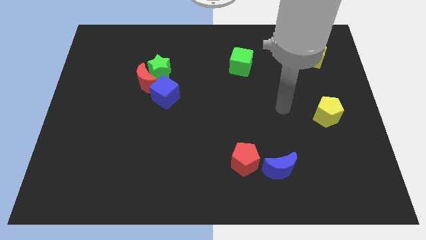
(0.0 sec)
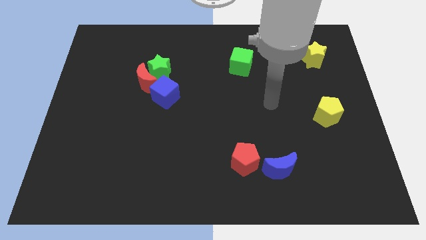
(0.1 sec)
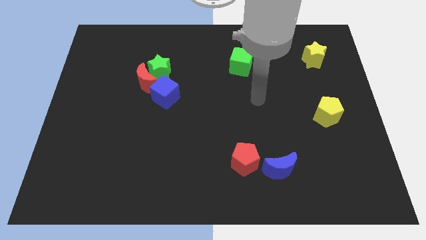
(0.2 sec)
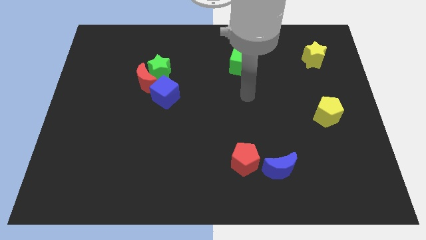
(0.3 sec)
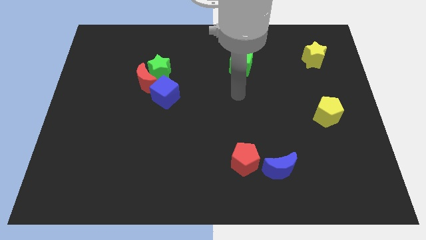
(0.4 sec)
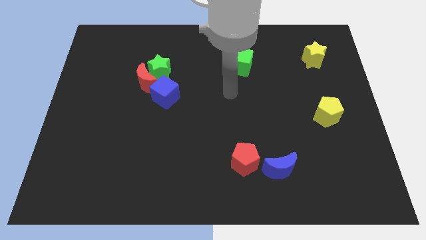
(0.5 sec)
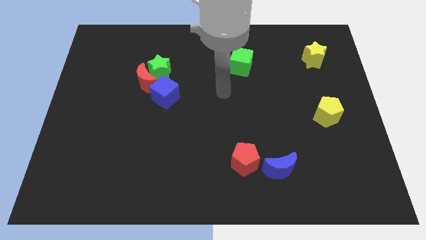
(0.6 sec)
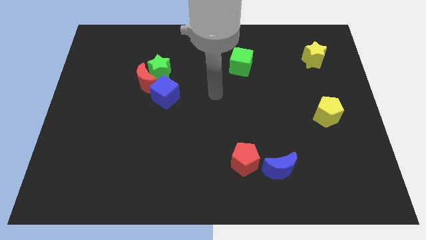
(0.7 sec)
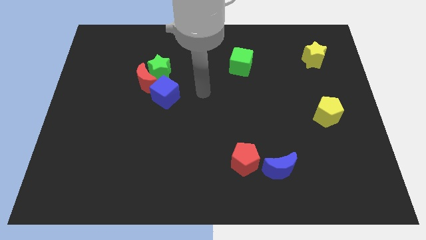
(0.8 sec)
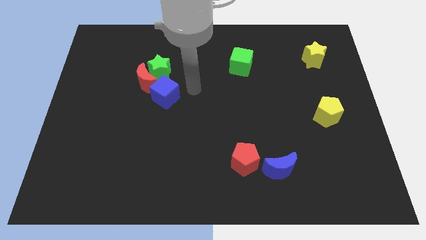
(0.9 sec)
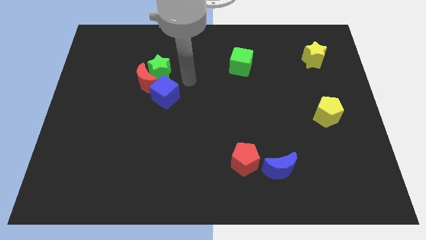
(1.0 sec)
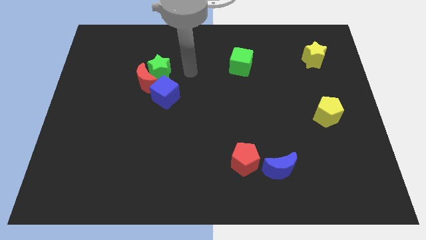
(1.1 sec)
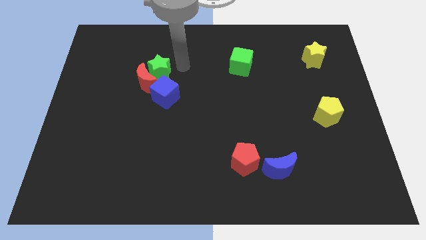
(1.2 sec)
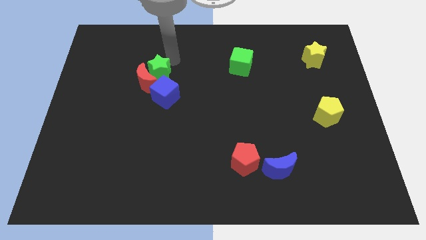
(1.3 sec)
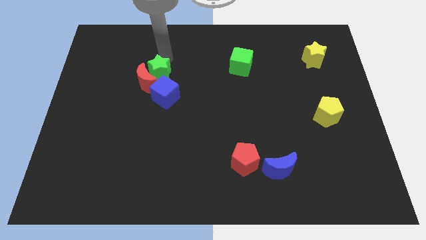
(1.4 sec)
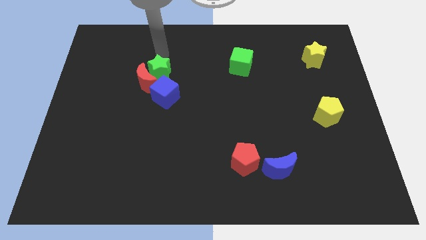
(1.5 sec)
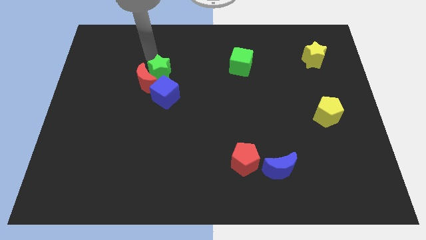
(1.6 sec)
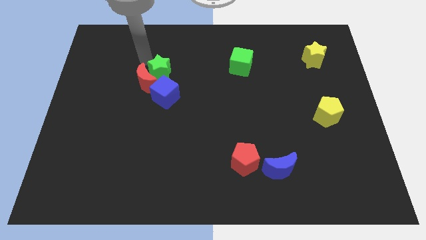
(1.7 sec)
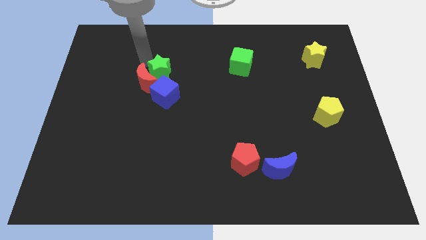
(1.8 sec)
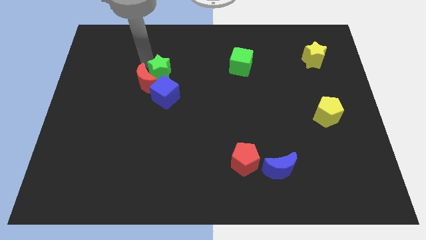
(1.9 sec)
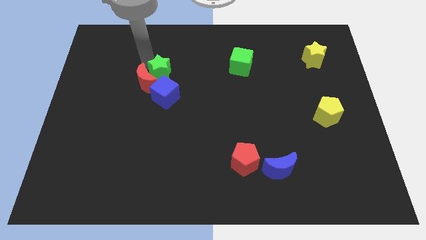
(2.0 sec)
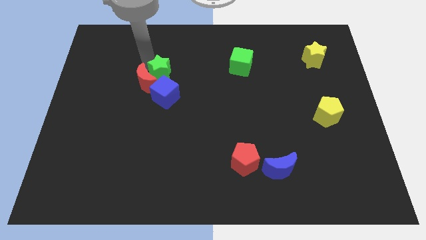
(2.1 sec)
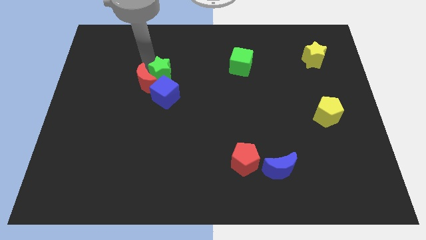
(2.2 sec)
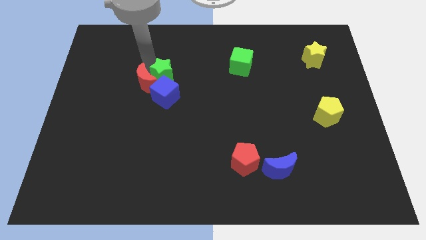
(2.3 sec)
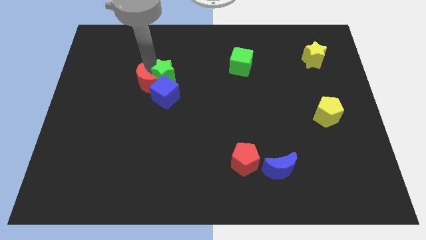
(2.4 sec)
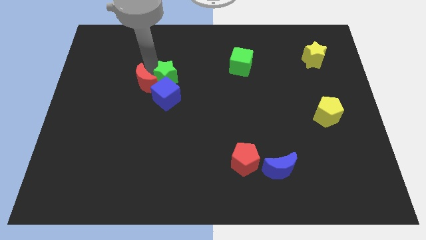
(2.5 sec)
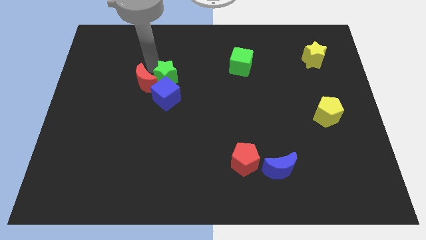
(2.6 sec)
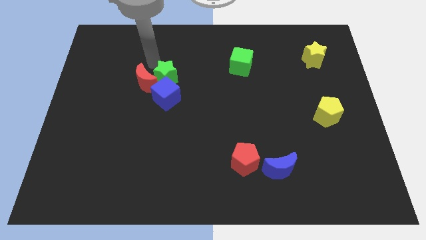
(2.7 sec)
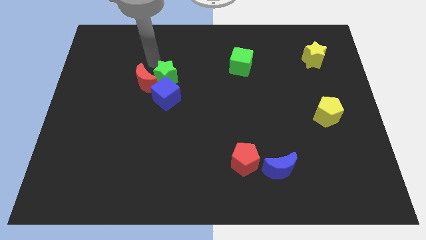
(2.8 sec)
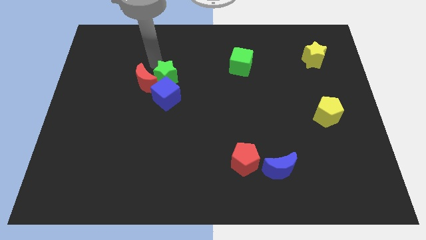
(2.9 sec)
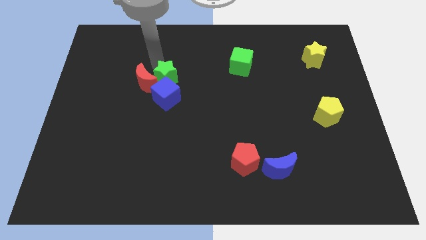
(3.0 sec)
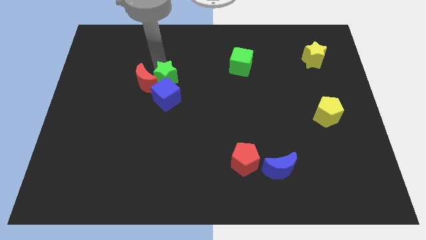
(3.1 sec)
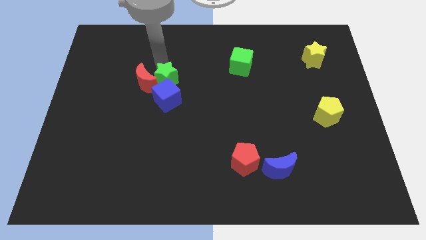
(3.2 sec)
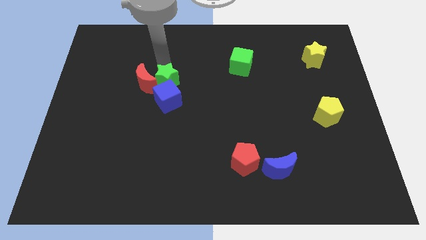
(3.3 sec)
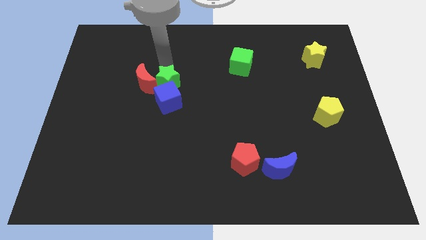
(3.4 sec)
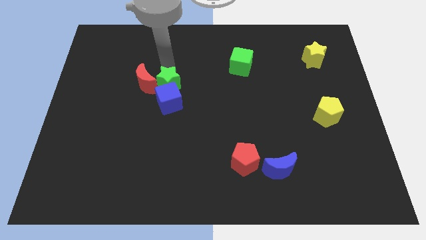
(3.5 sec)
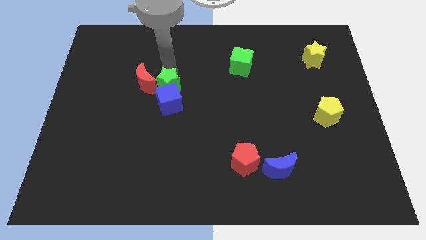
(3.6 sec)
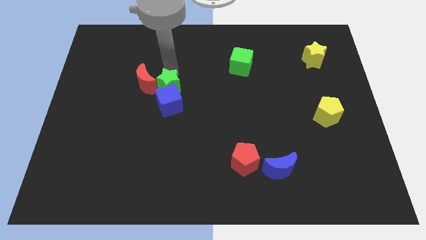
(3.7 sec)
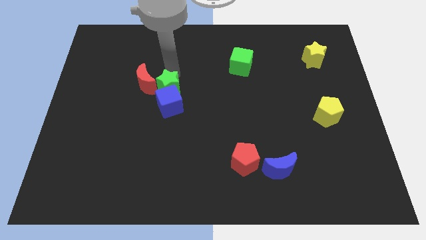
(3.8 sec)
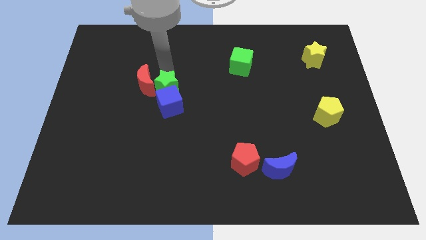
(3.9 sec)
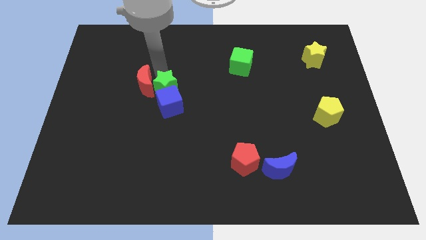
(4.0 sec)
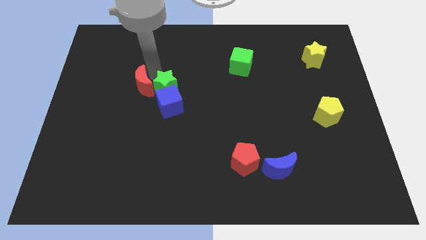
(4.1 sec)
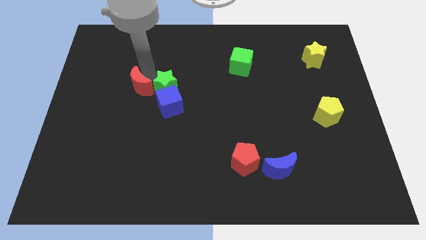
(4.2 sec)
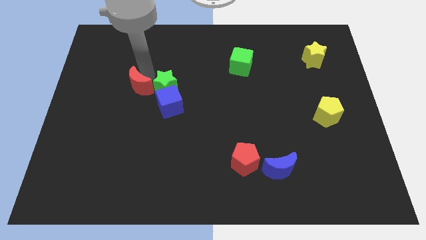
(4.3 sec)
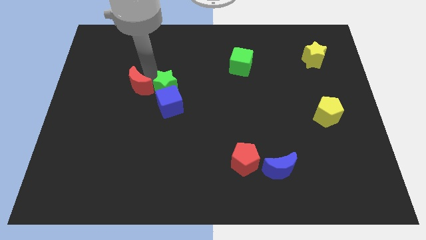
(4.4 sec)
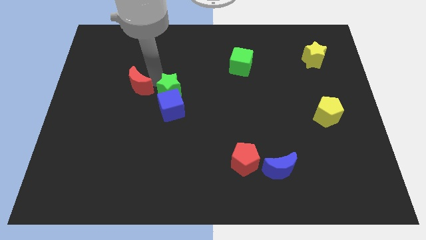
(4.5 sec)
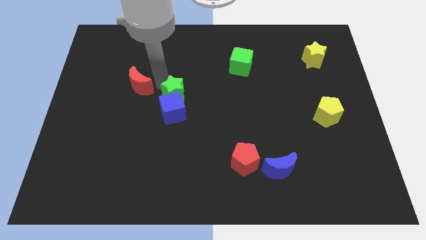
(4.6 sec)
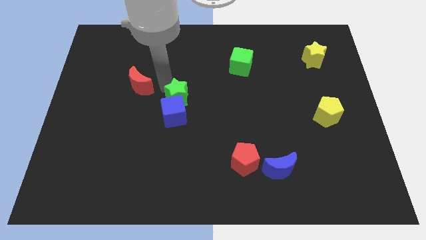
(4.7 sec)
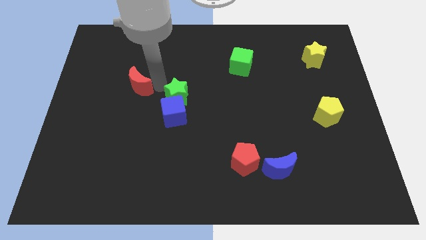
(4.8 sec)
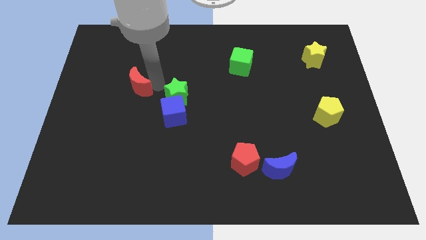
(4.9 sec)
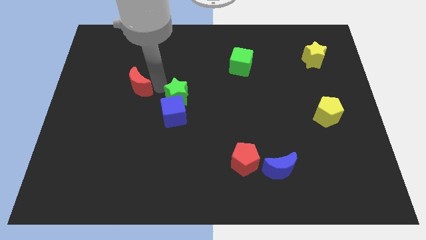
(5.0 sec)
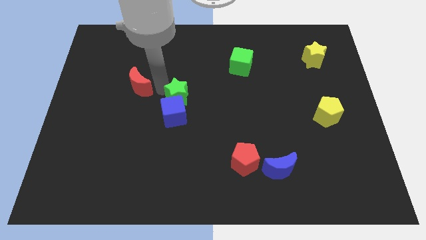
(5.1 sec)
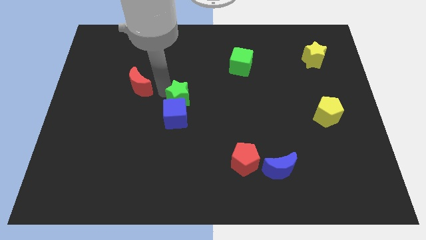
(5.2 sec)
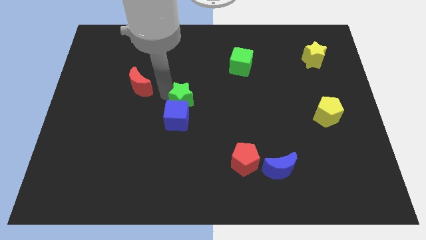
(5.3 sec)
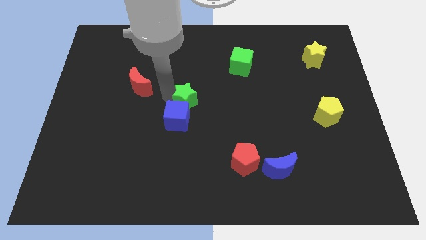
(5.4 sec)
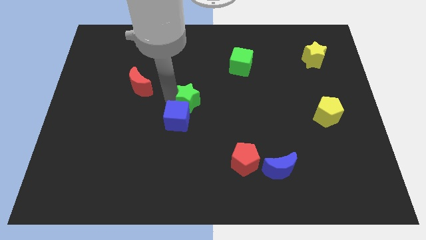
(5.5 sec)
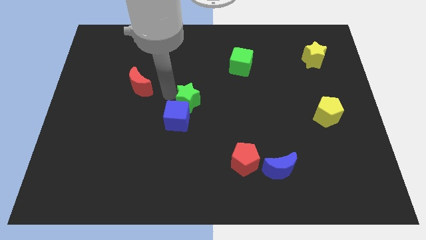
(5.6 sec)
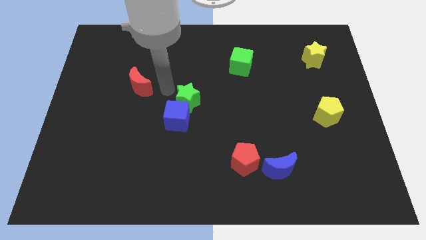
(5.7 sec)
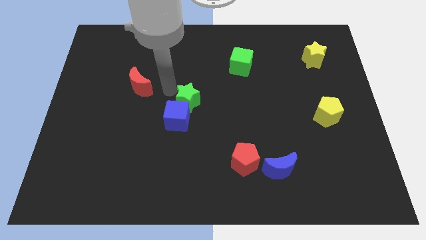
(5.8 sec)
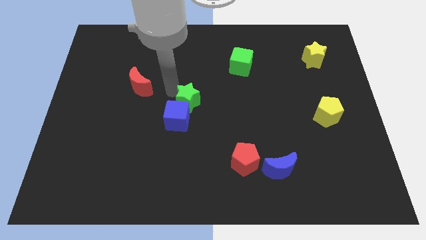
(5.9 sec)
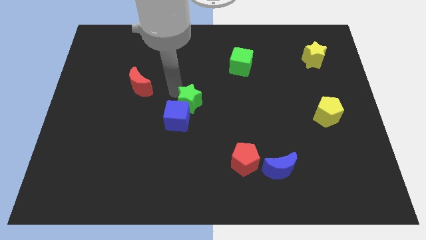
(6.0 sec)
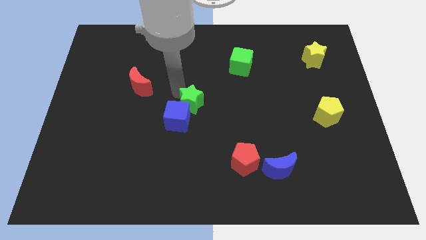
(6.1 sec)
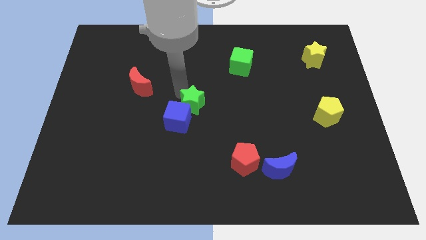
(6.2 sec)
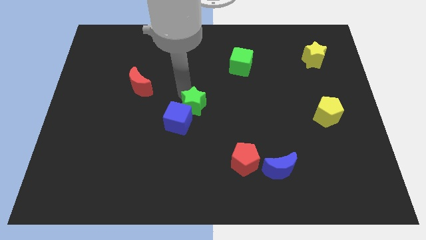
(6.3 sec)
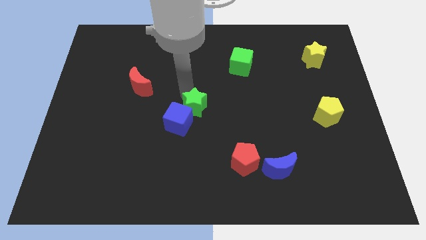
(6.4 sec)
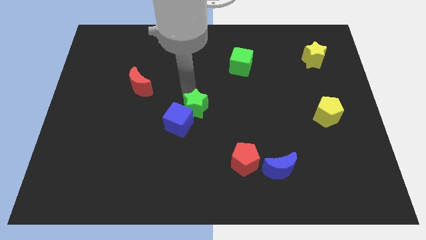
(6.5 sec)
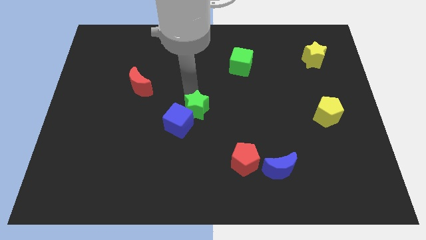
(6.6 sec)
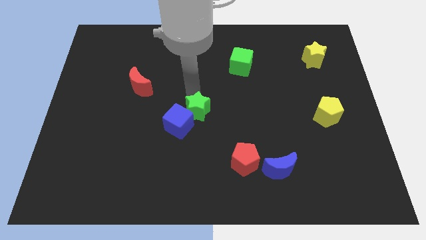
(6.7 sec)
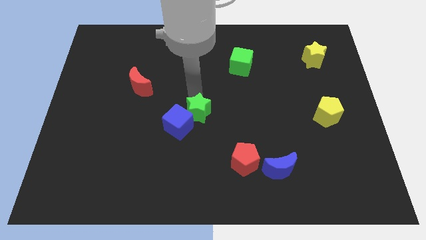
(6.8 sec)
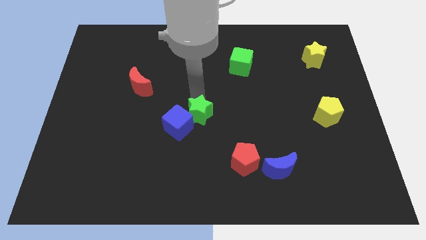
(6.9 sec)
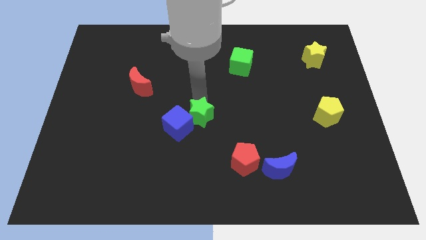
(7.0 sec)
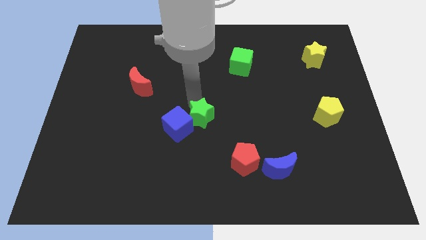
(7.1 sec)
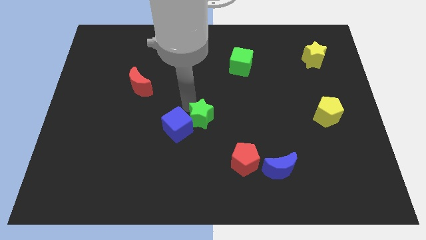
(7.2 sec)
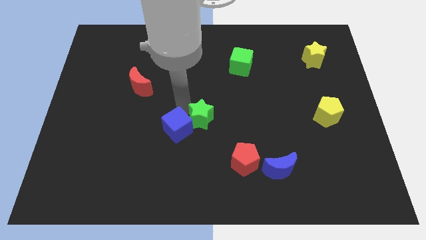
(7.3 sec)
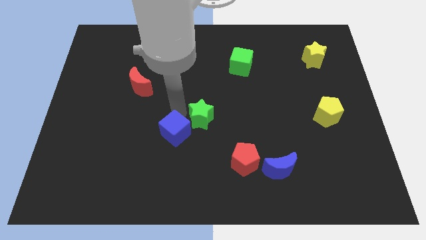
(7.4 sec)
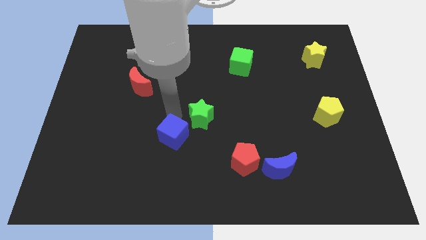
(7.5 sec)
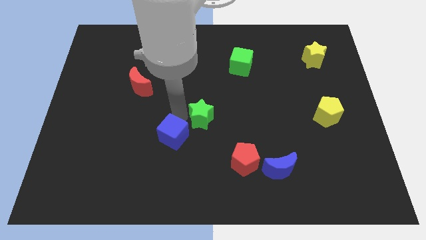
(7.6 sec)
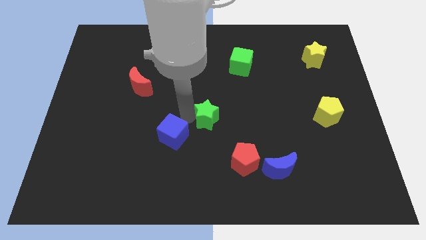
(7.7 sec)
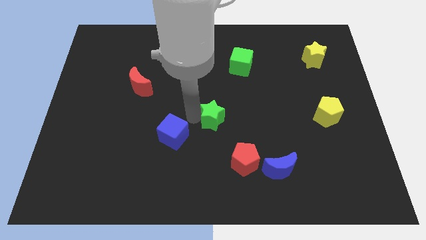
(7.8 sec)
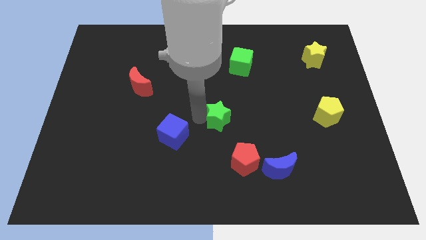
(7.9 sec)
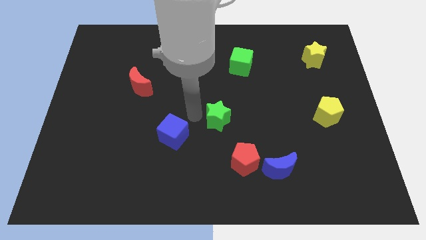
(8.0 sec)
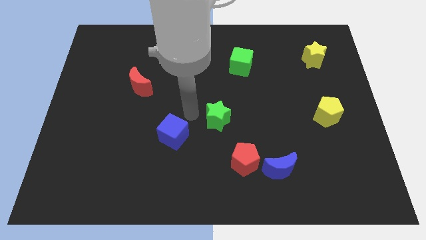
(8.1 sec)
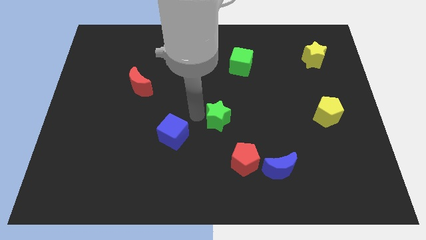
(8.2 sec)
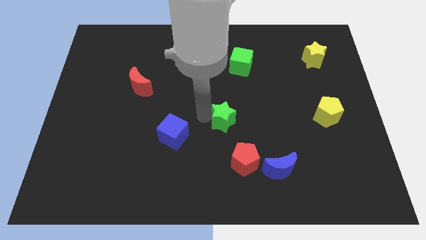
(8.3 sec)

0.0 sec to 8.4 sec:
push the green star to the top of the red pentagon
